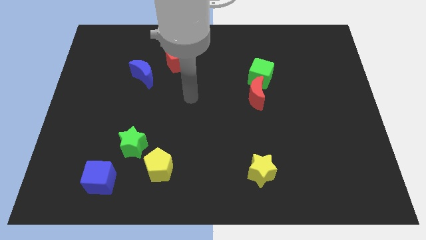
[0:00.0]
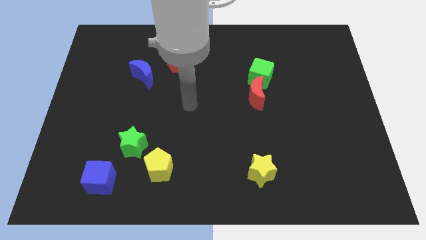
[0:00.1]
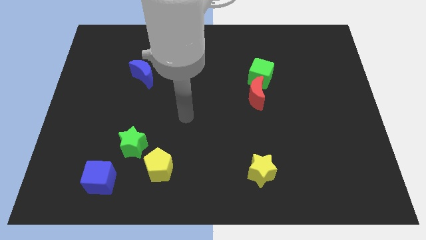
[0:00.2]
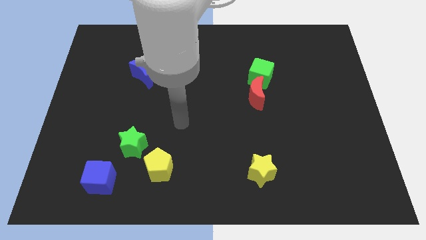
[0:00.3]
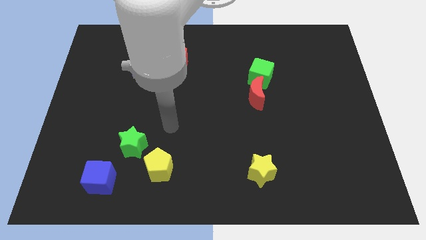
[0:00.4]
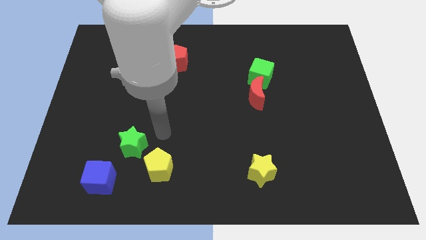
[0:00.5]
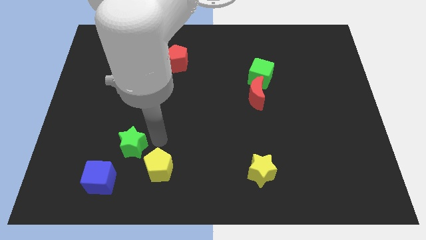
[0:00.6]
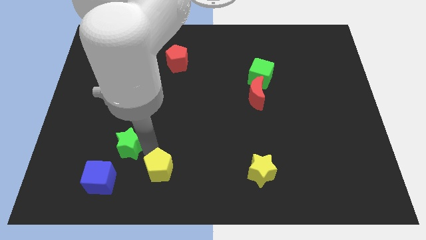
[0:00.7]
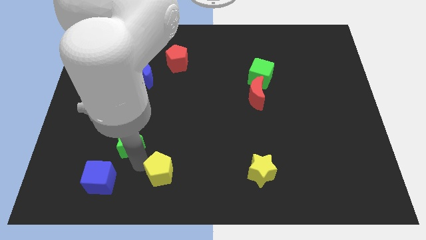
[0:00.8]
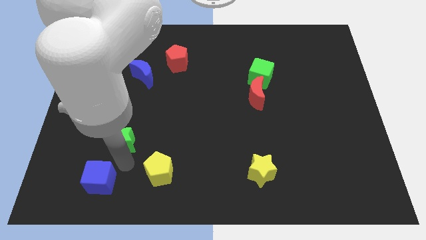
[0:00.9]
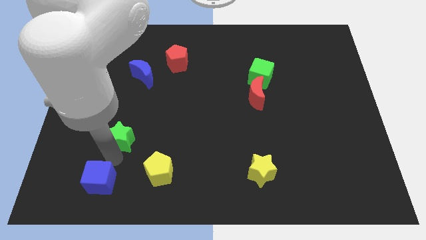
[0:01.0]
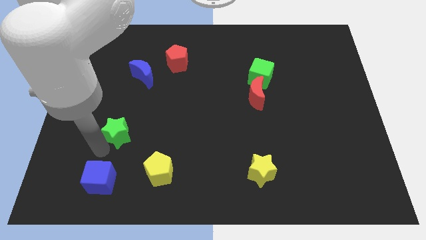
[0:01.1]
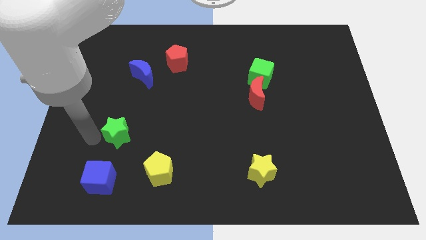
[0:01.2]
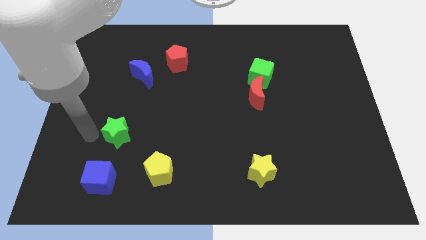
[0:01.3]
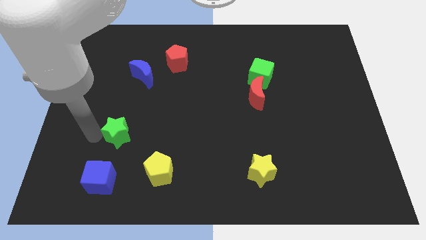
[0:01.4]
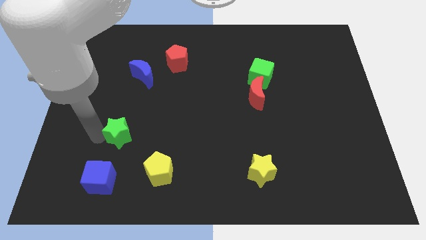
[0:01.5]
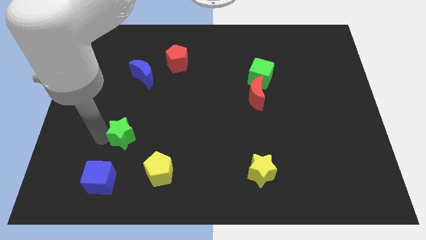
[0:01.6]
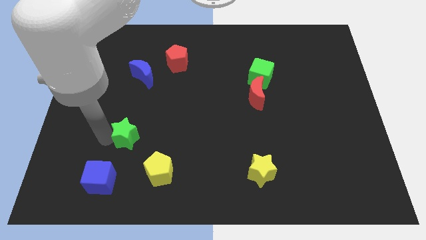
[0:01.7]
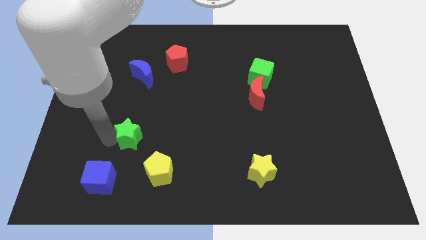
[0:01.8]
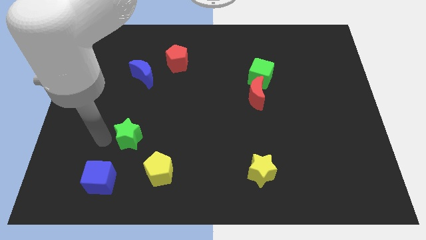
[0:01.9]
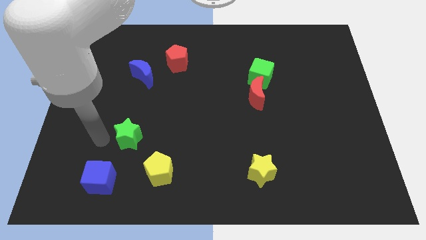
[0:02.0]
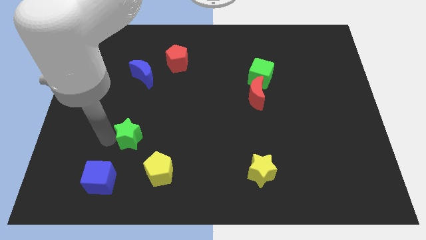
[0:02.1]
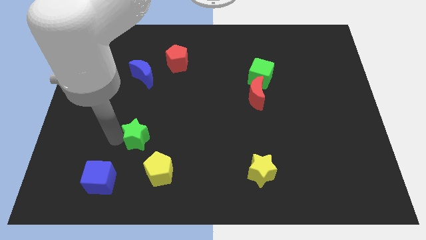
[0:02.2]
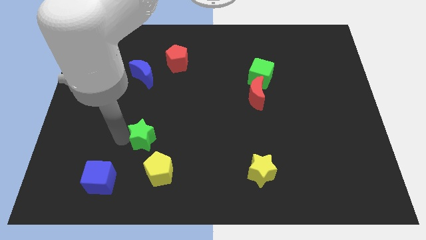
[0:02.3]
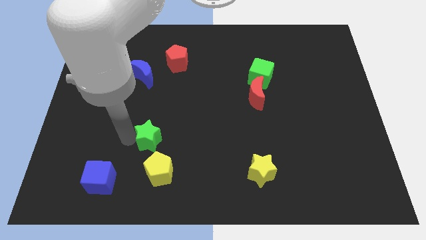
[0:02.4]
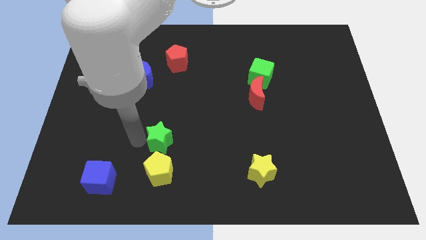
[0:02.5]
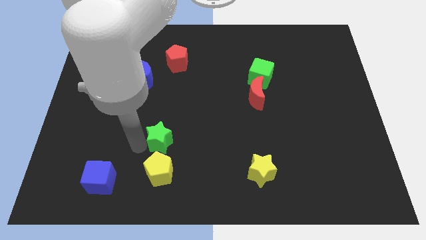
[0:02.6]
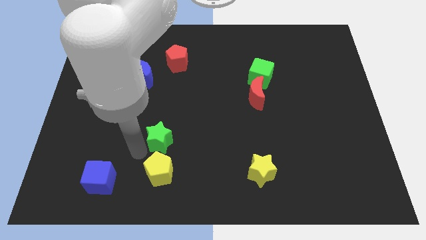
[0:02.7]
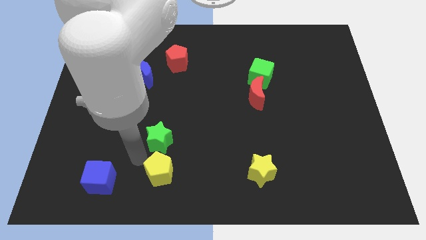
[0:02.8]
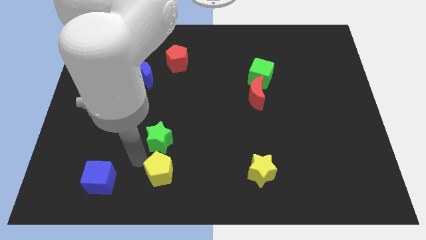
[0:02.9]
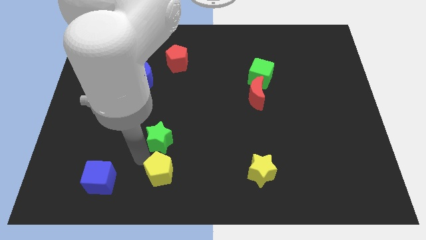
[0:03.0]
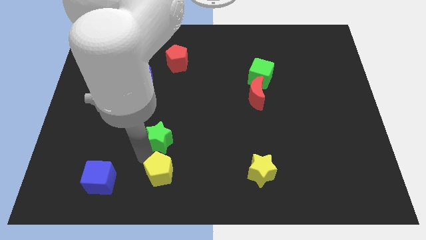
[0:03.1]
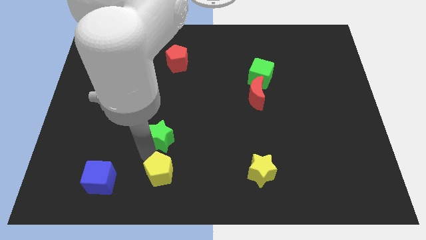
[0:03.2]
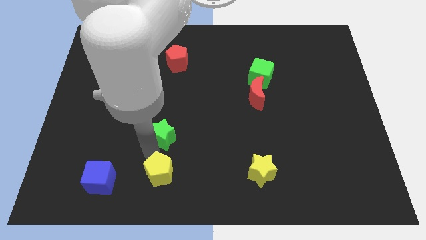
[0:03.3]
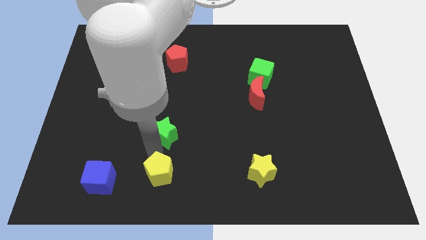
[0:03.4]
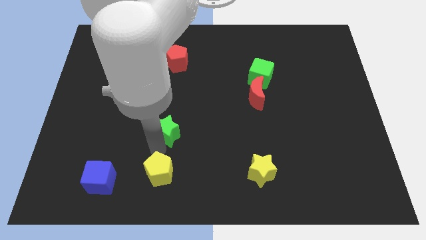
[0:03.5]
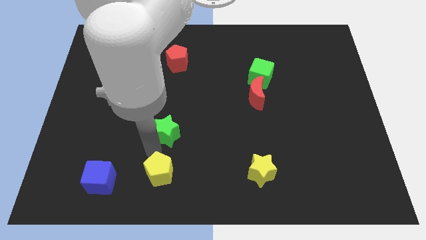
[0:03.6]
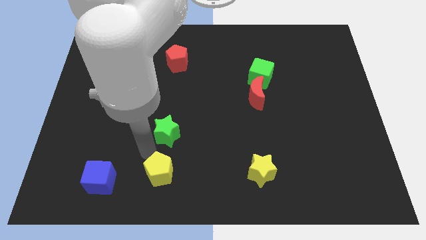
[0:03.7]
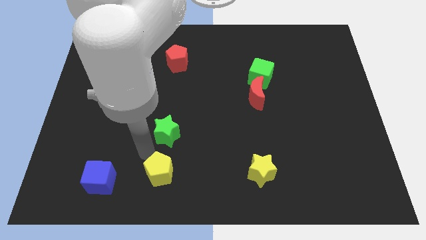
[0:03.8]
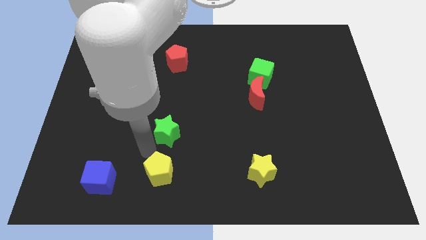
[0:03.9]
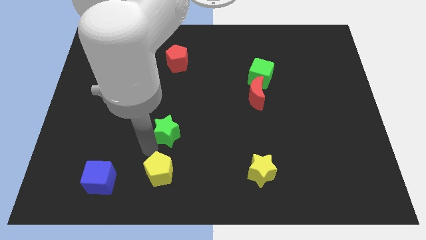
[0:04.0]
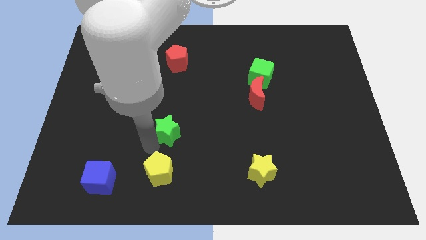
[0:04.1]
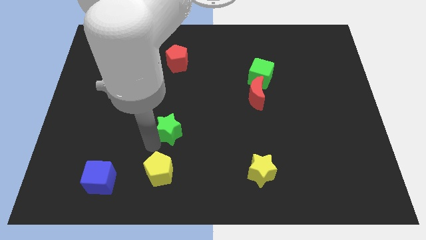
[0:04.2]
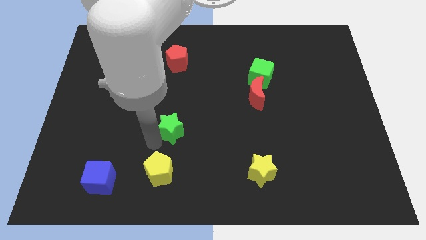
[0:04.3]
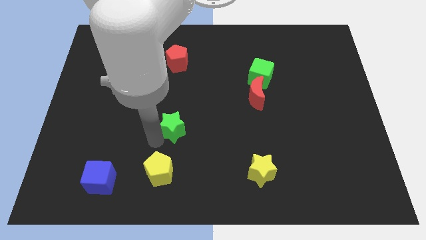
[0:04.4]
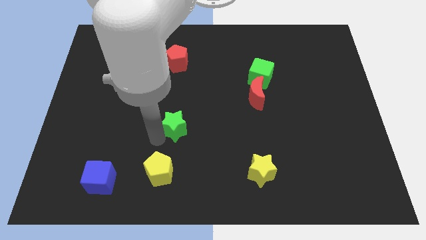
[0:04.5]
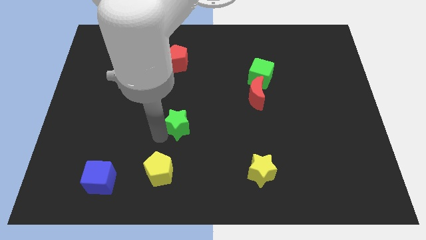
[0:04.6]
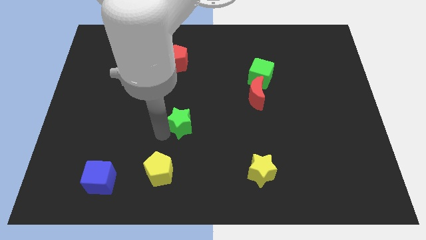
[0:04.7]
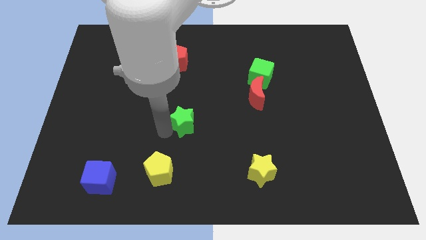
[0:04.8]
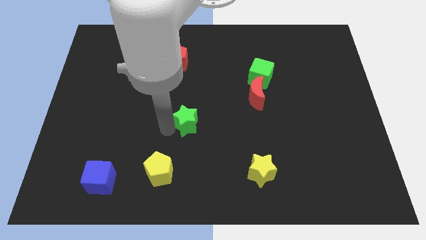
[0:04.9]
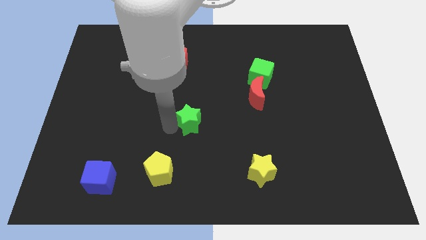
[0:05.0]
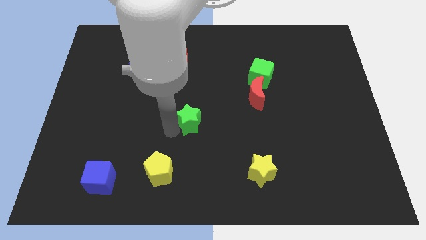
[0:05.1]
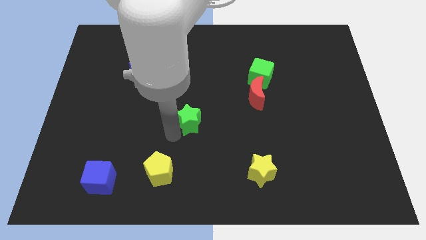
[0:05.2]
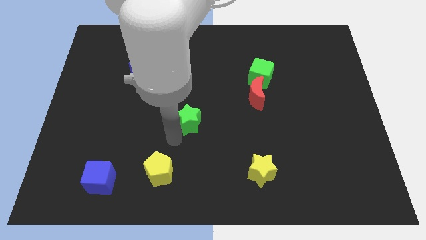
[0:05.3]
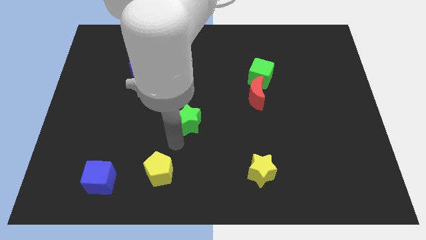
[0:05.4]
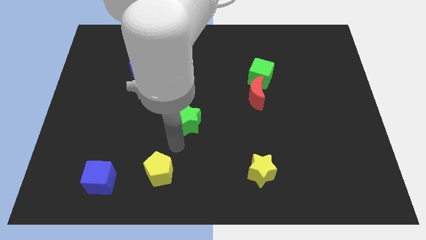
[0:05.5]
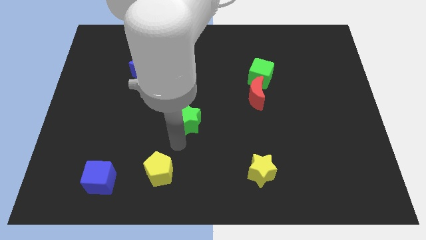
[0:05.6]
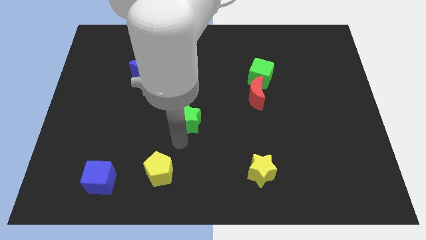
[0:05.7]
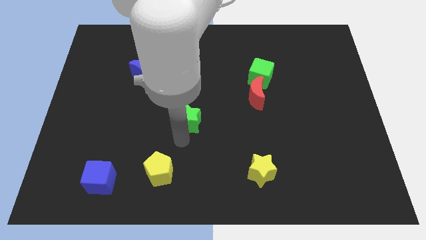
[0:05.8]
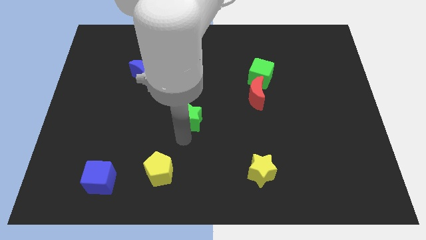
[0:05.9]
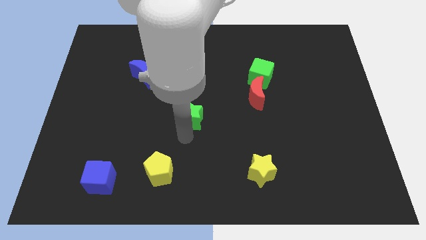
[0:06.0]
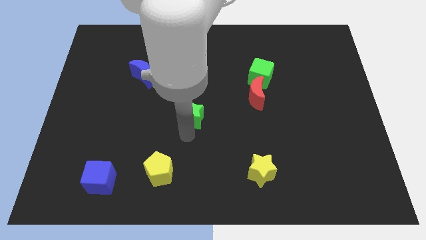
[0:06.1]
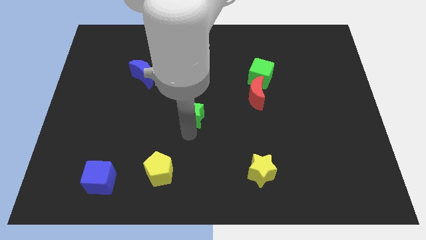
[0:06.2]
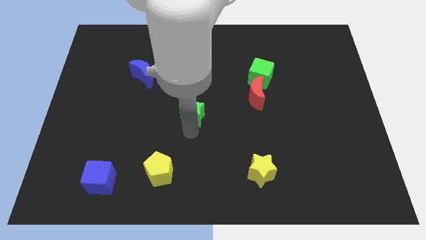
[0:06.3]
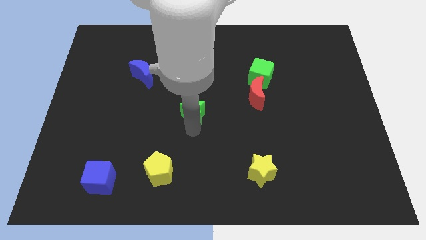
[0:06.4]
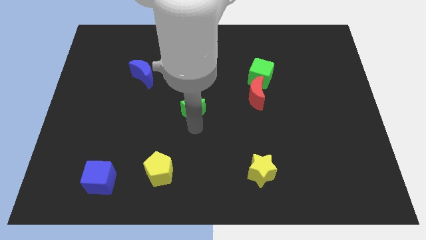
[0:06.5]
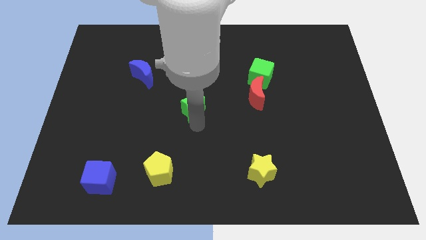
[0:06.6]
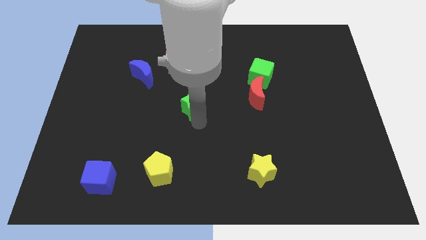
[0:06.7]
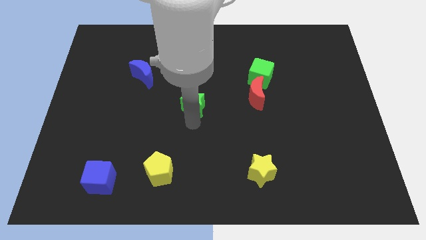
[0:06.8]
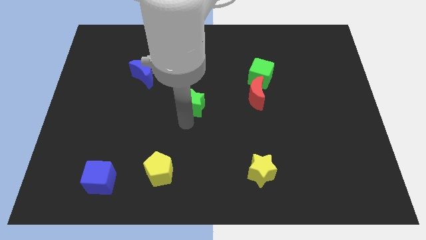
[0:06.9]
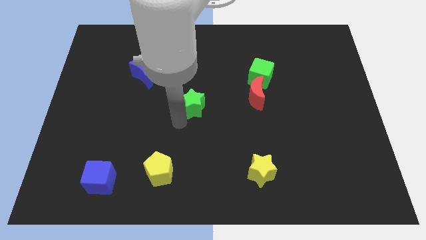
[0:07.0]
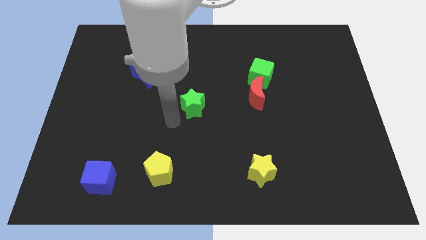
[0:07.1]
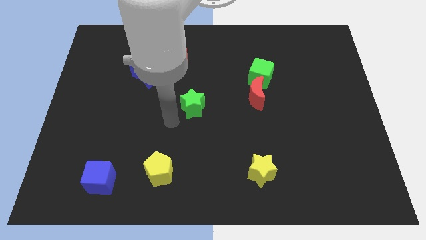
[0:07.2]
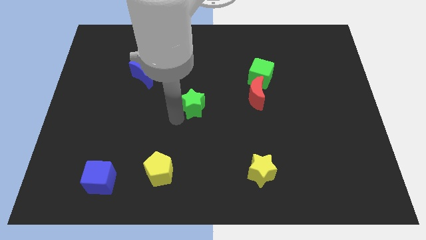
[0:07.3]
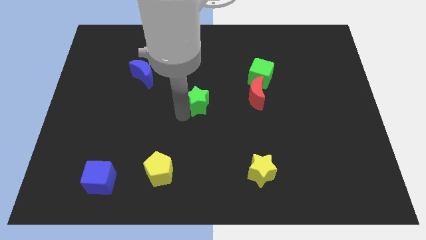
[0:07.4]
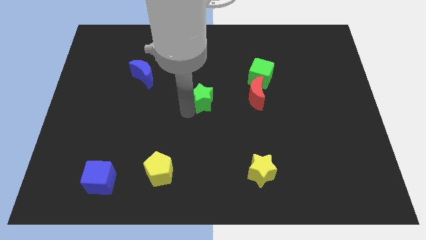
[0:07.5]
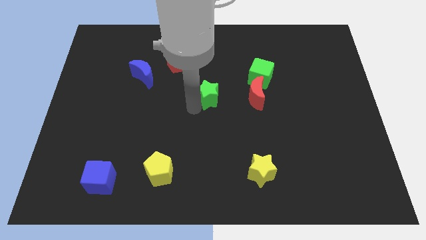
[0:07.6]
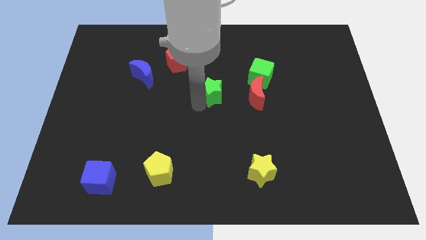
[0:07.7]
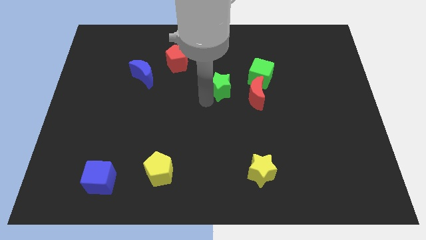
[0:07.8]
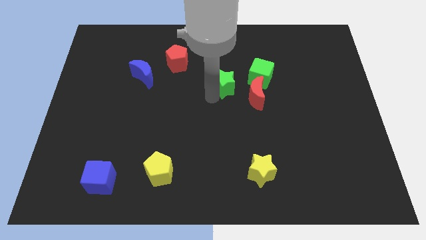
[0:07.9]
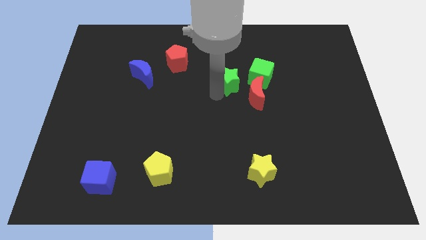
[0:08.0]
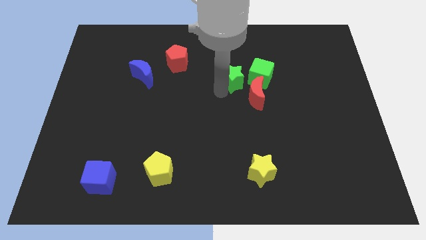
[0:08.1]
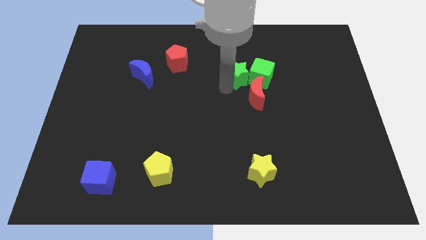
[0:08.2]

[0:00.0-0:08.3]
push the green star above the red moon
